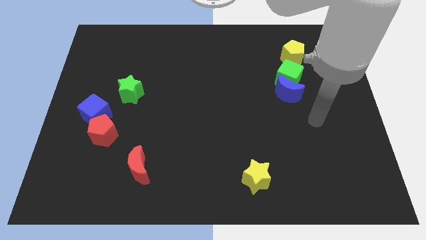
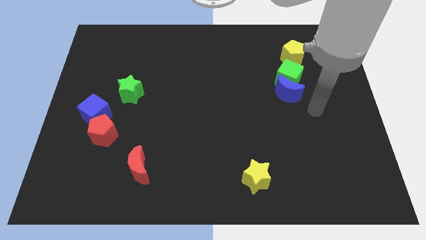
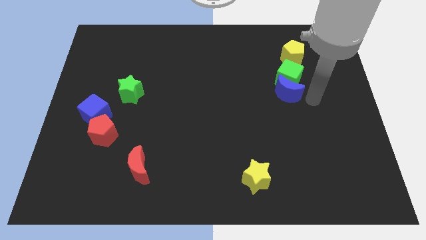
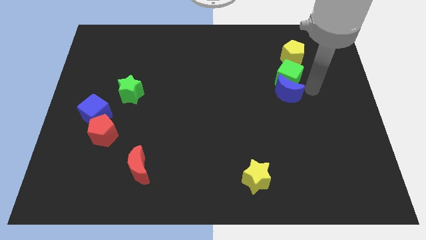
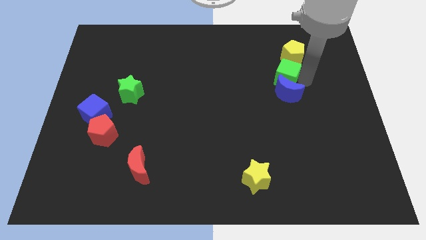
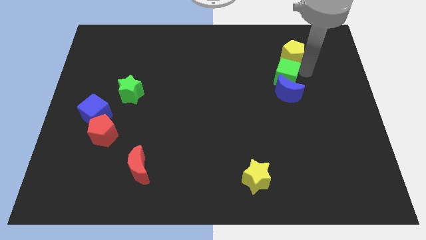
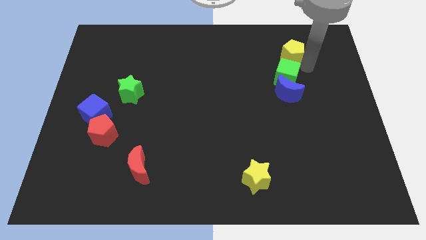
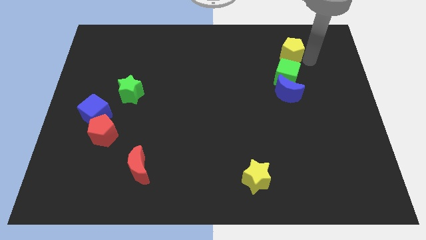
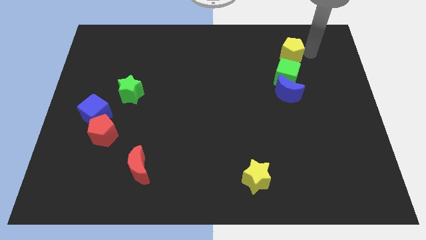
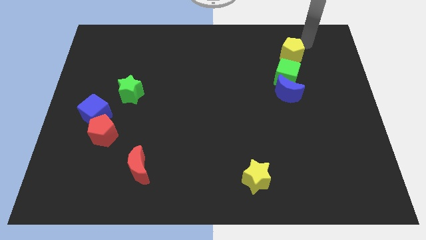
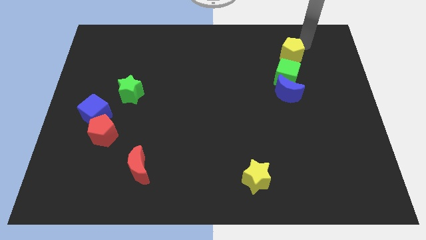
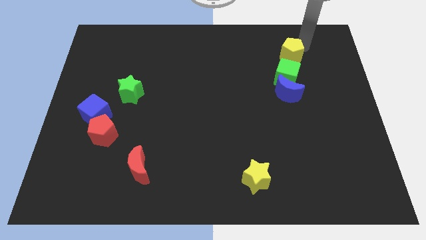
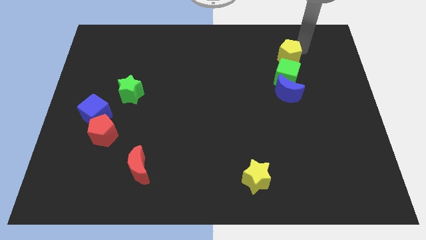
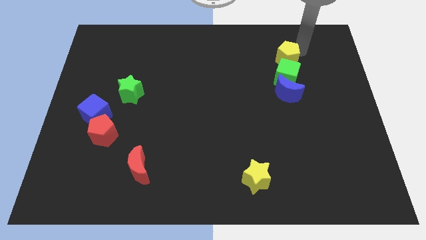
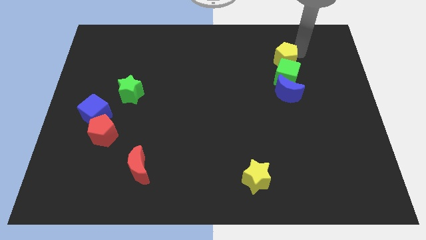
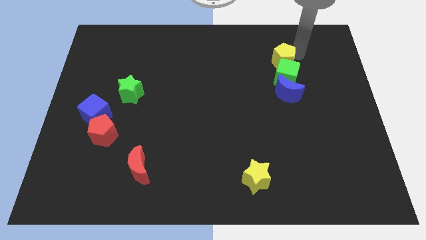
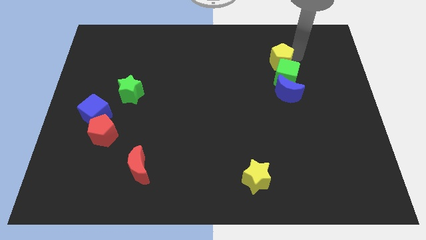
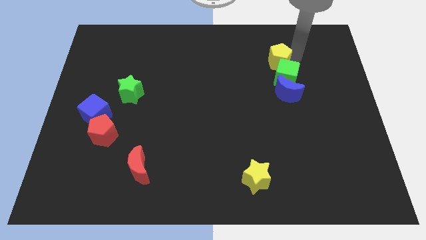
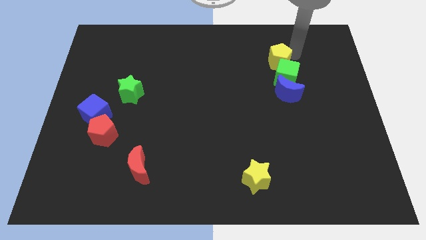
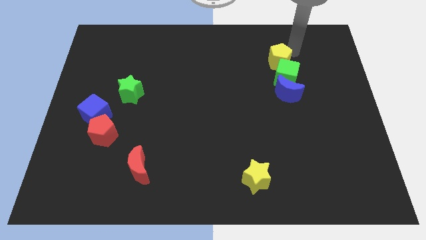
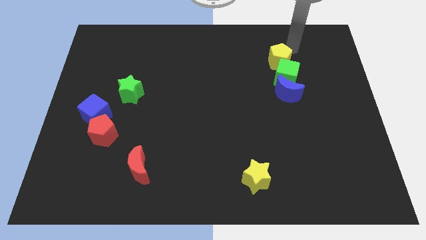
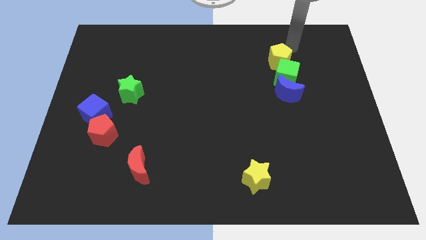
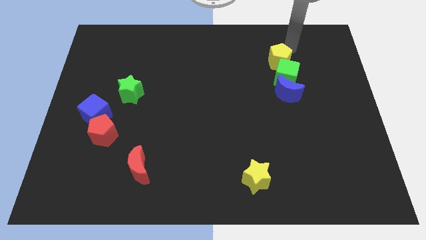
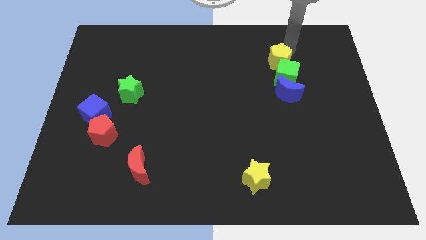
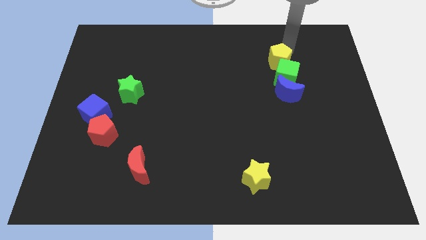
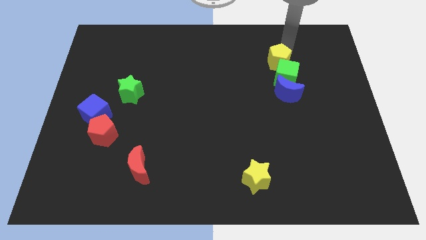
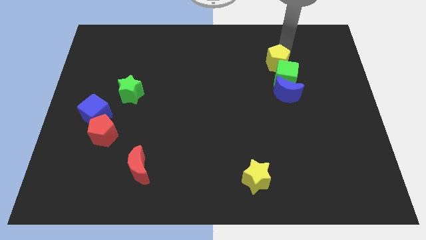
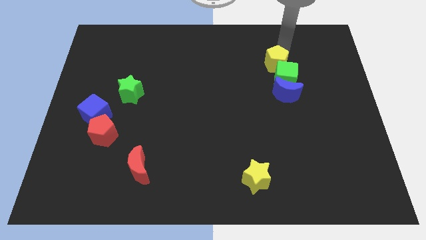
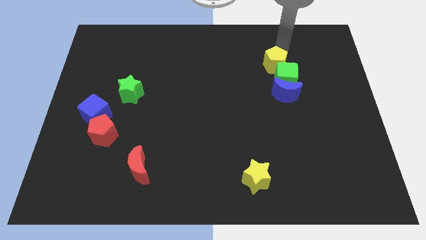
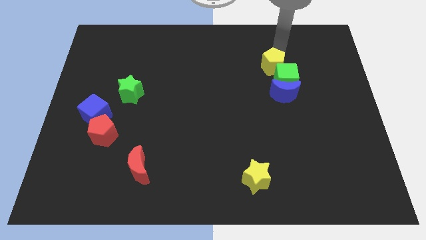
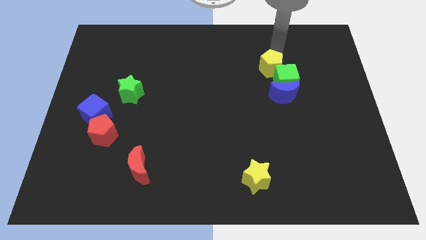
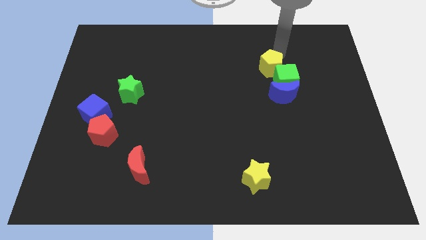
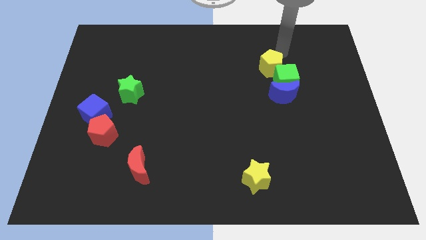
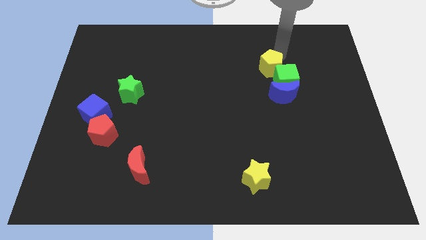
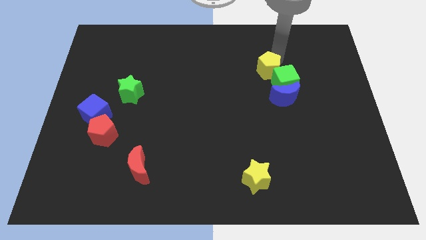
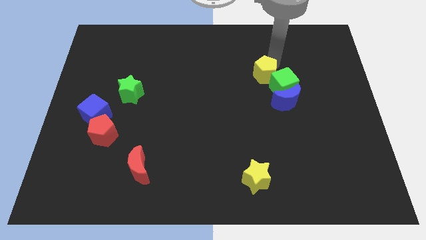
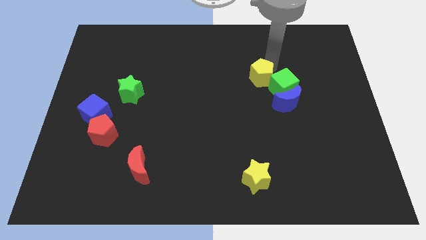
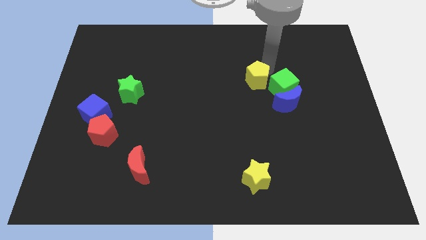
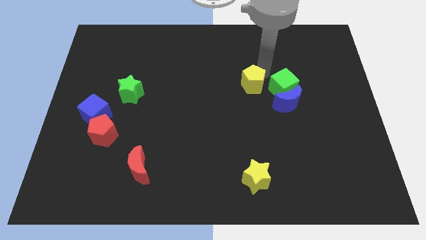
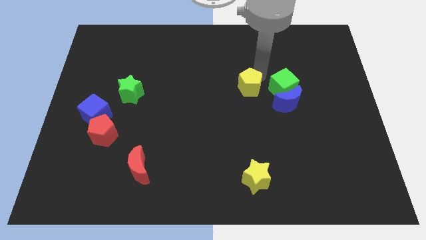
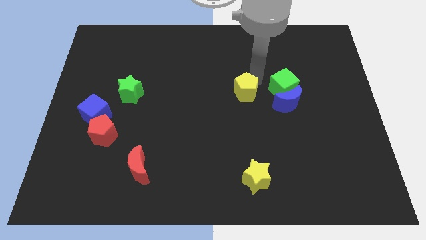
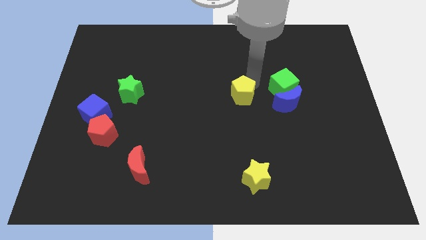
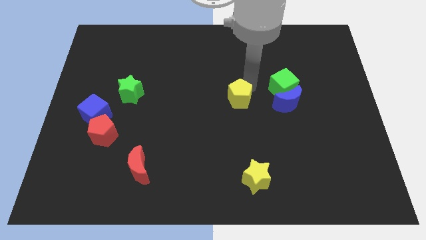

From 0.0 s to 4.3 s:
move the yellow pentagon down and then to the left

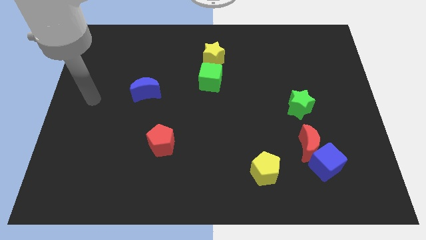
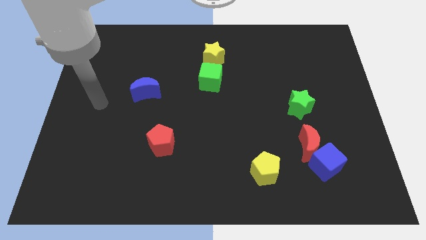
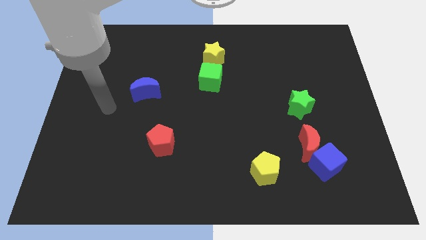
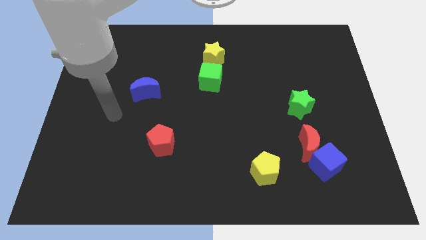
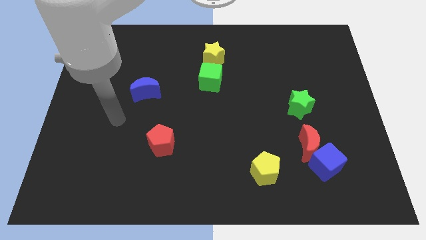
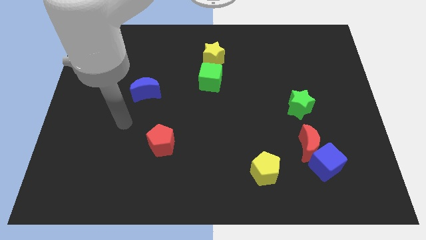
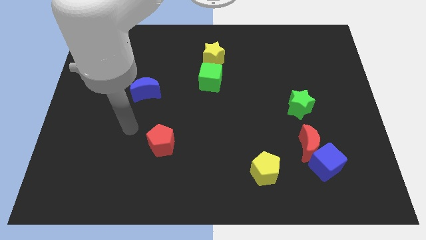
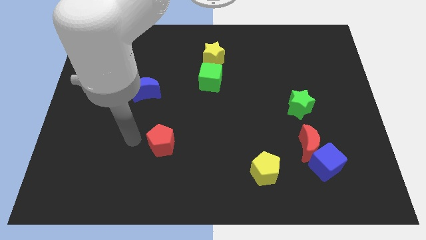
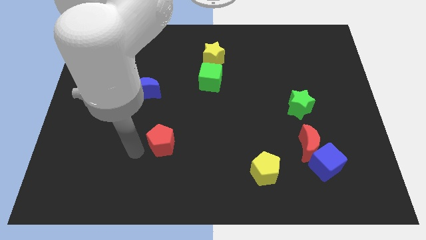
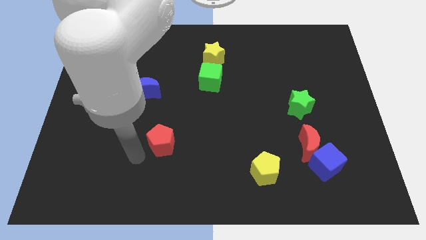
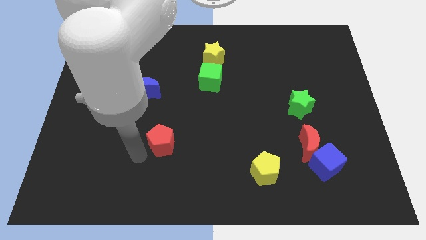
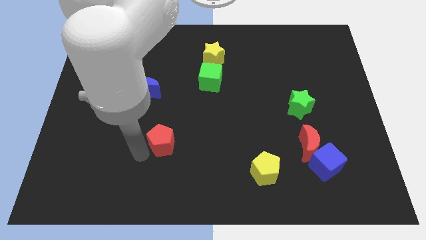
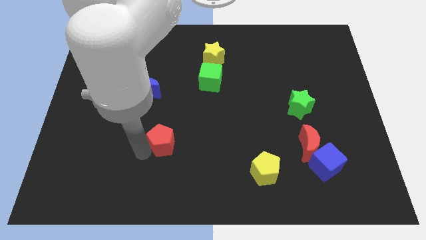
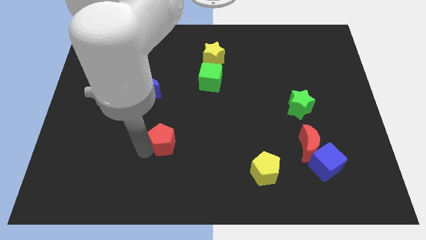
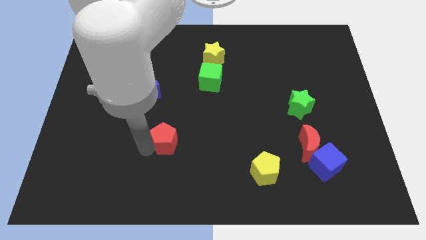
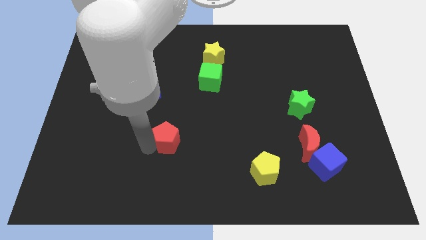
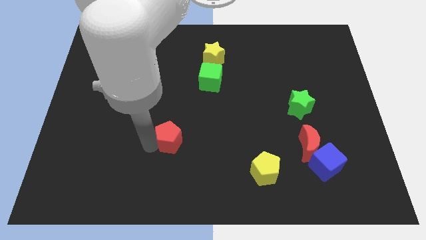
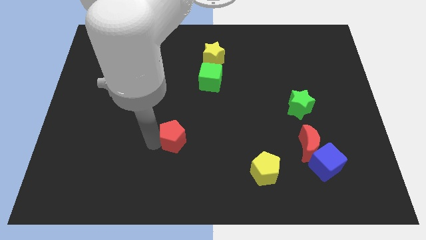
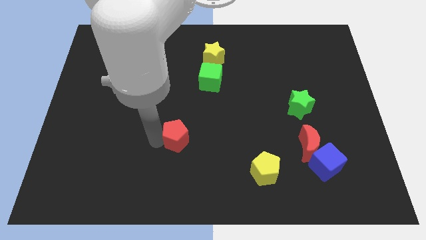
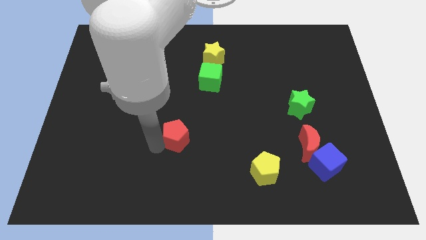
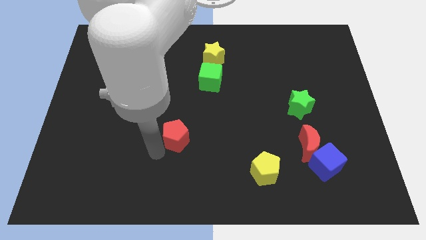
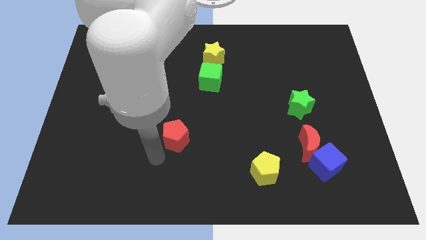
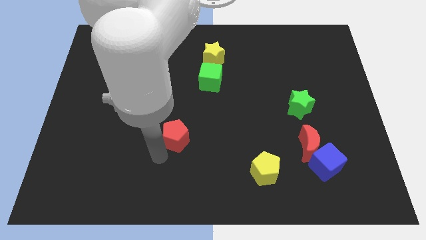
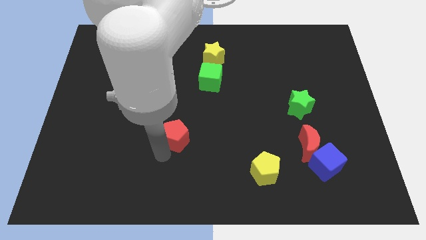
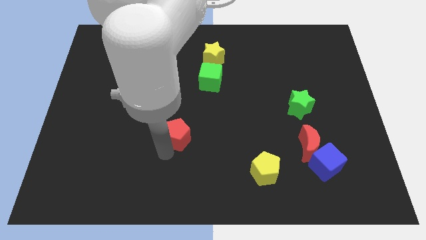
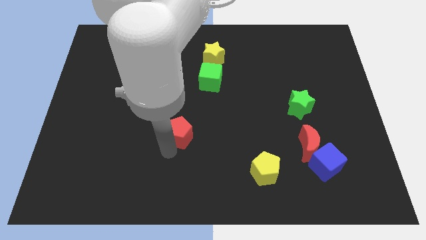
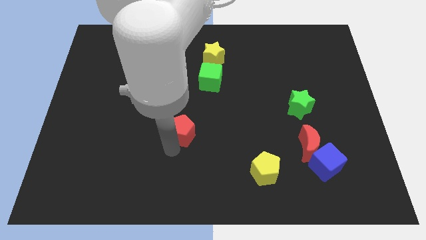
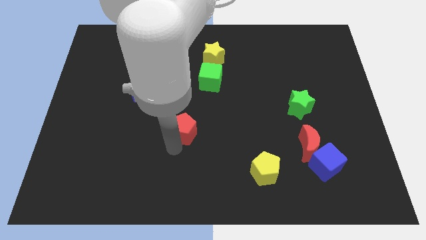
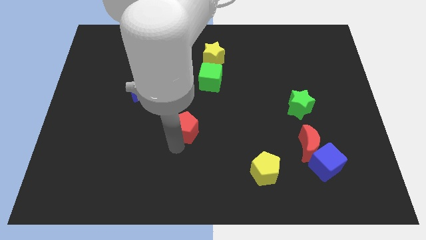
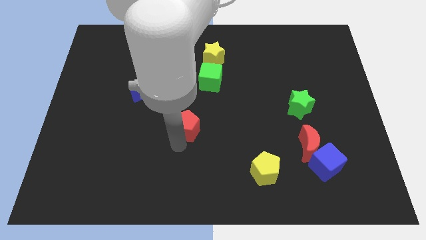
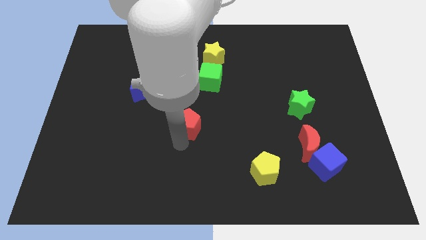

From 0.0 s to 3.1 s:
push the red pentagon diagonally upwards and to the right a bit

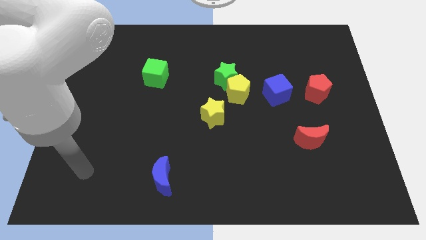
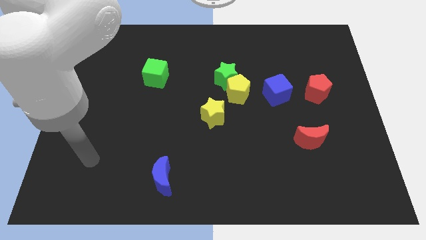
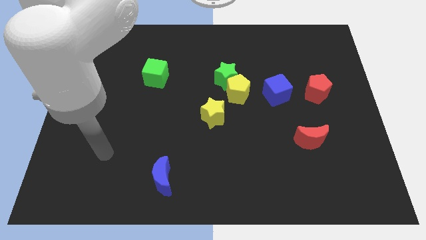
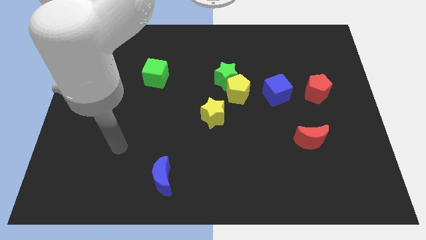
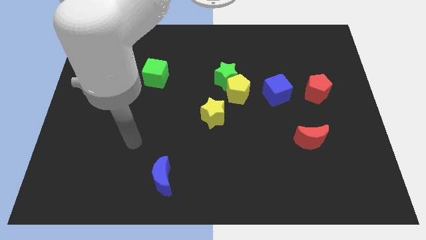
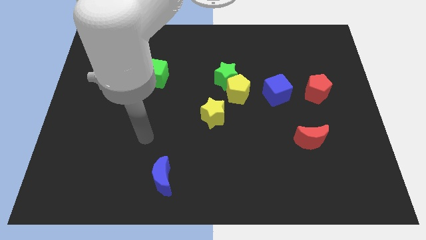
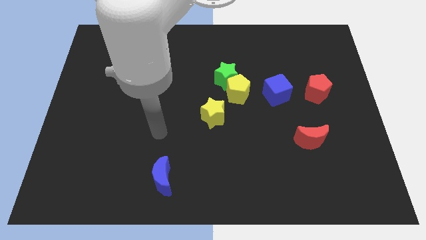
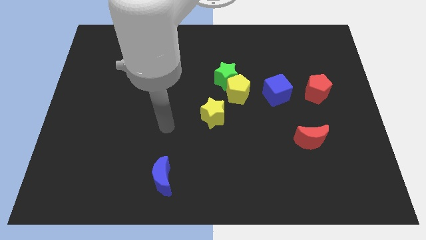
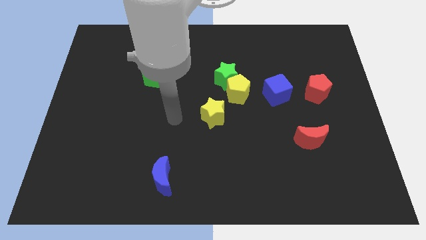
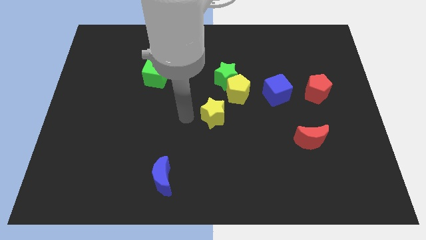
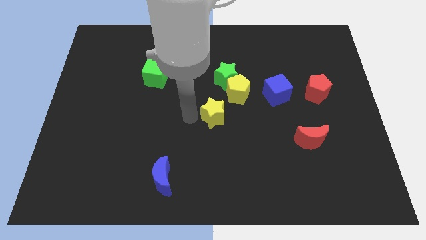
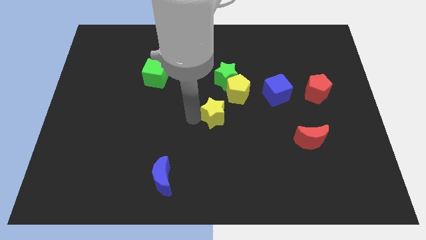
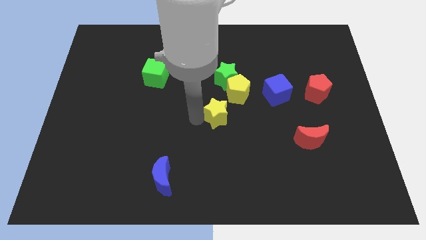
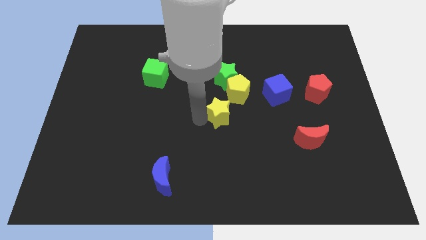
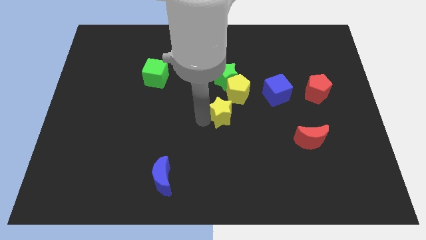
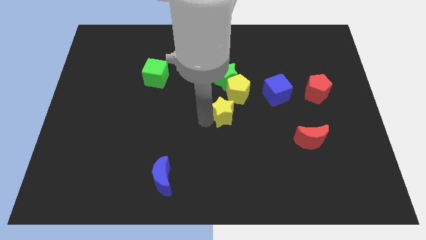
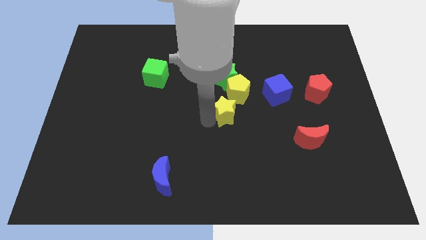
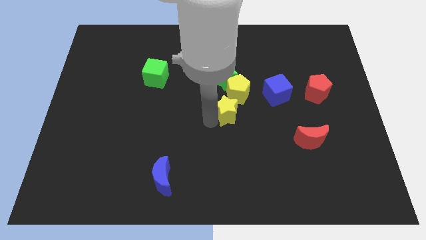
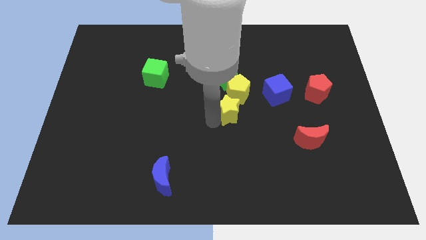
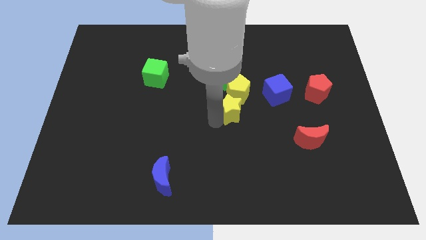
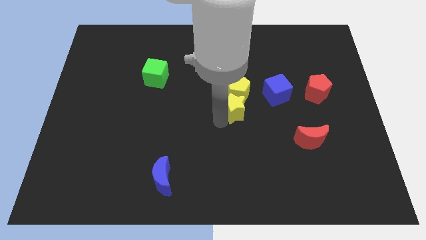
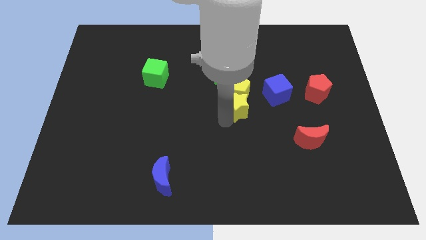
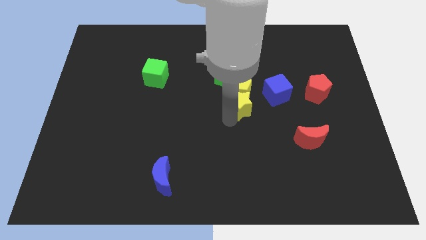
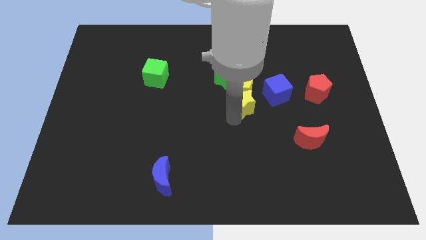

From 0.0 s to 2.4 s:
move the yellow star somewhat right
